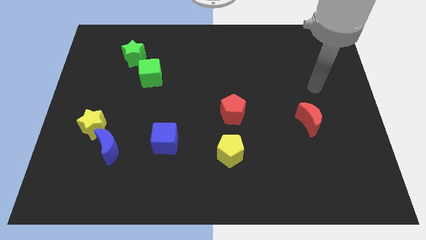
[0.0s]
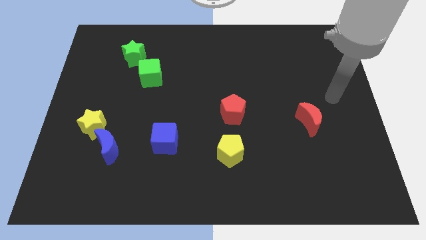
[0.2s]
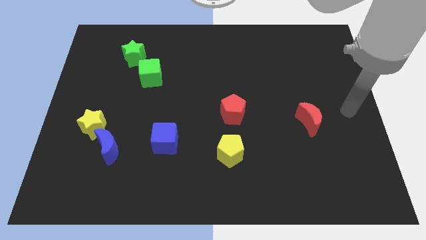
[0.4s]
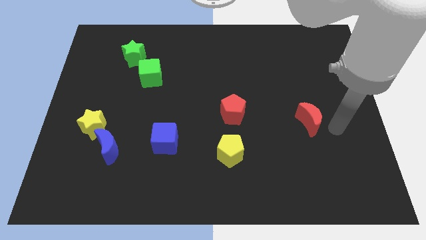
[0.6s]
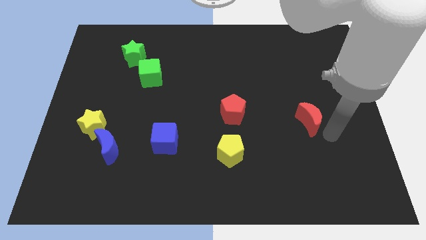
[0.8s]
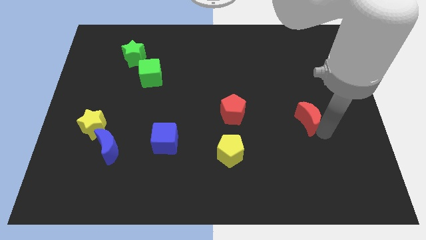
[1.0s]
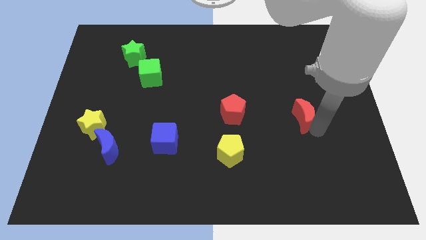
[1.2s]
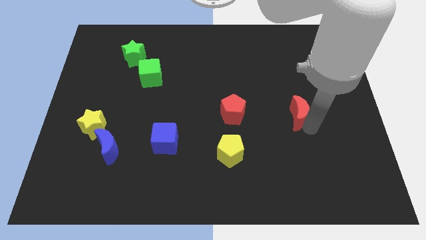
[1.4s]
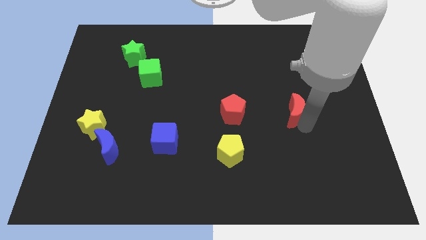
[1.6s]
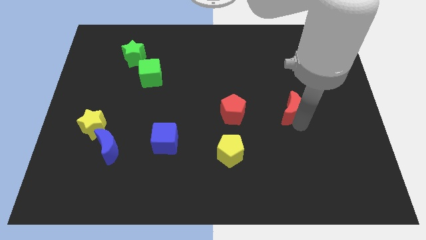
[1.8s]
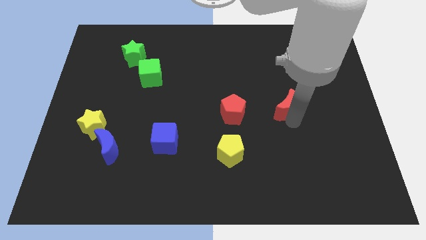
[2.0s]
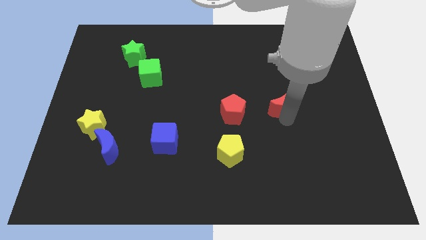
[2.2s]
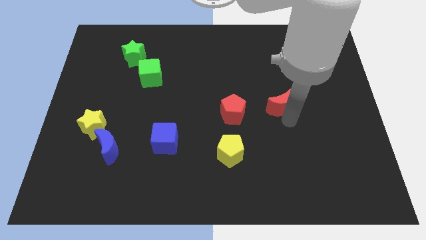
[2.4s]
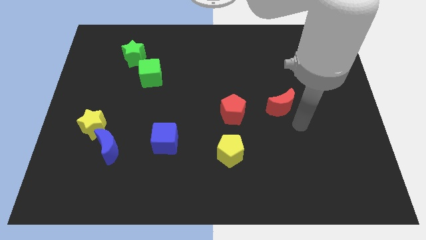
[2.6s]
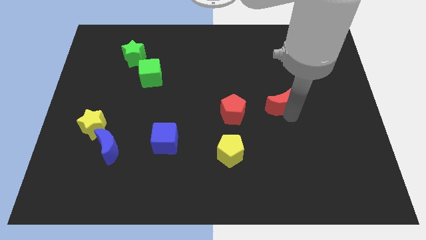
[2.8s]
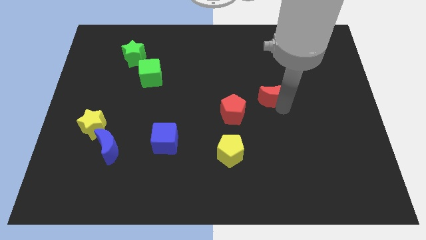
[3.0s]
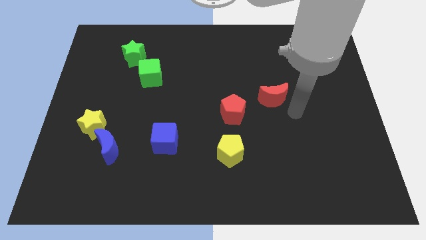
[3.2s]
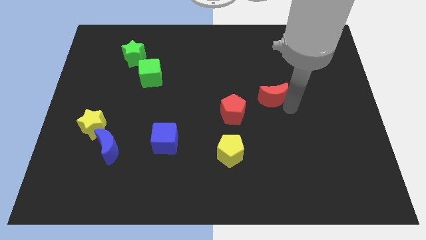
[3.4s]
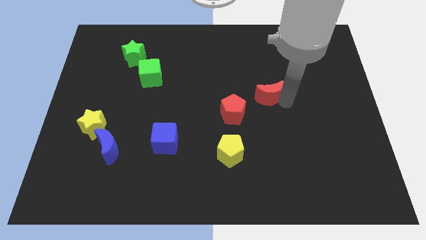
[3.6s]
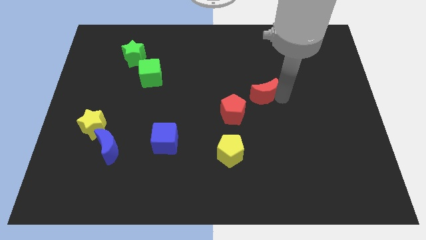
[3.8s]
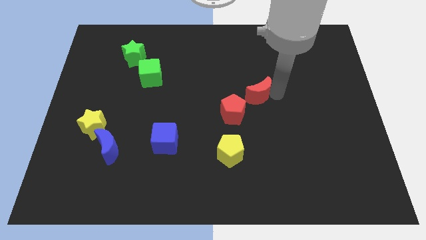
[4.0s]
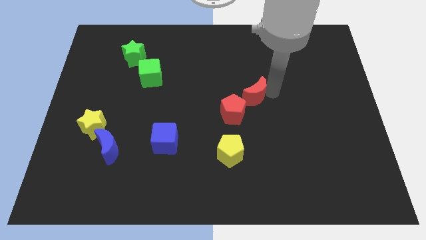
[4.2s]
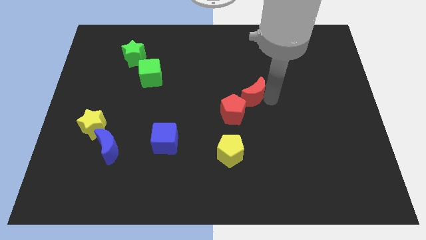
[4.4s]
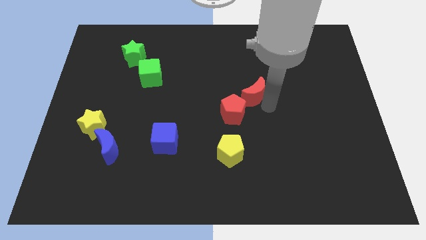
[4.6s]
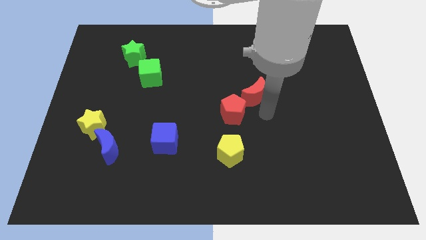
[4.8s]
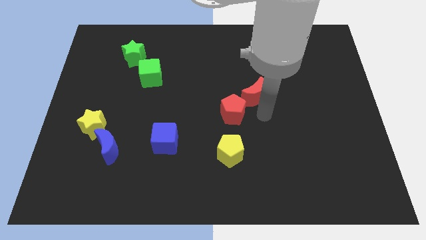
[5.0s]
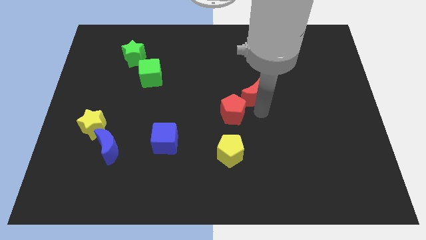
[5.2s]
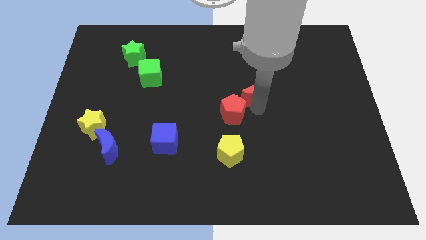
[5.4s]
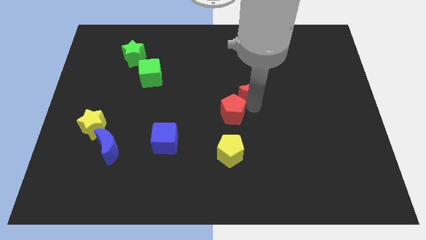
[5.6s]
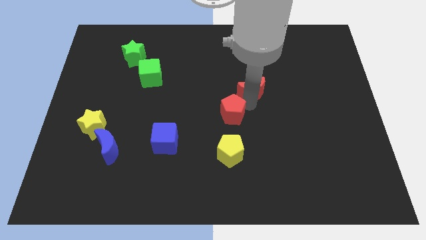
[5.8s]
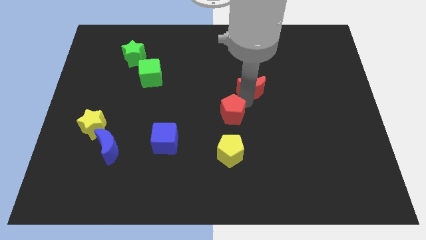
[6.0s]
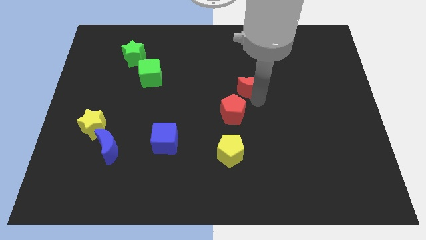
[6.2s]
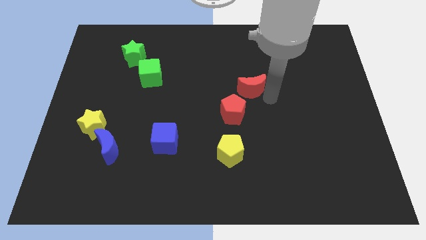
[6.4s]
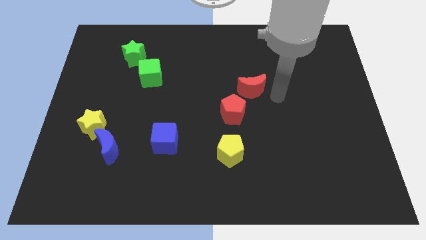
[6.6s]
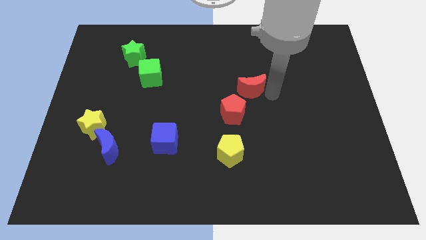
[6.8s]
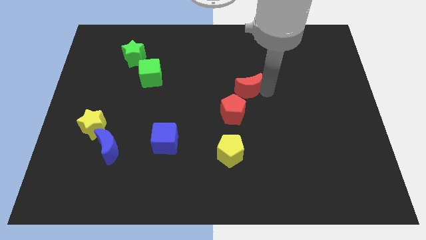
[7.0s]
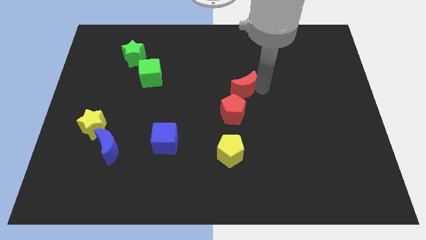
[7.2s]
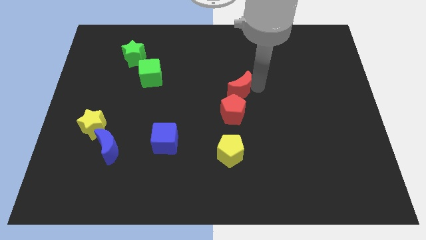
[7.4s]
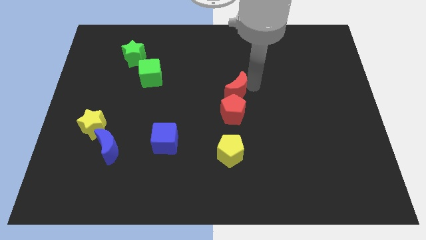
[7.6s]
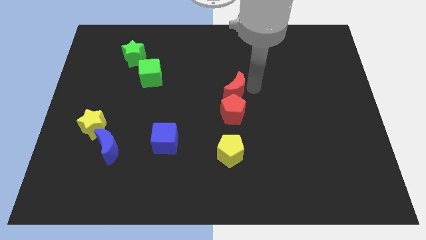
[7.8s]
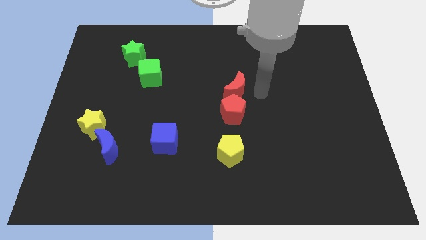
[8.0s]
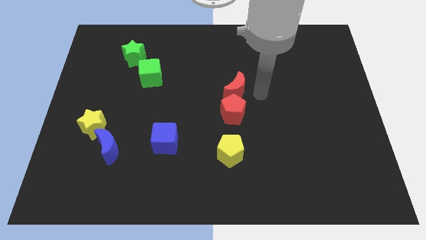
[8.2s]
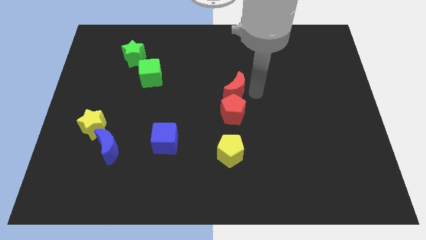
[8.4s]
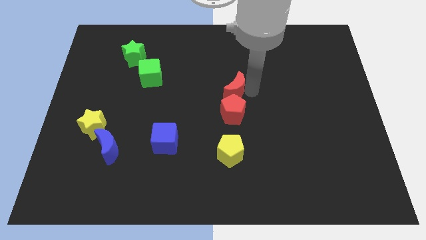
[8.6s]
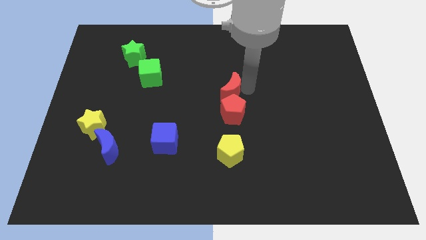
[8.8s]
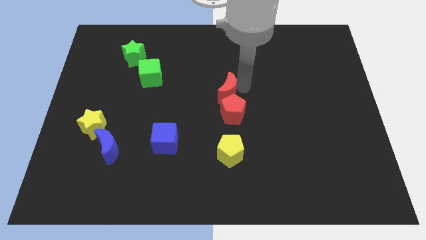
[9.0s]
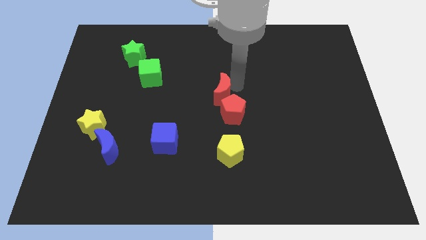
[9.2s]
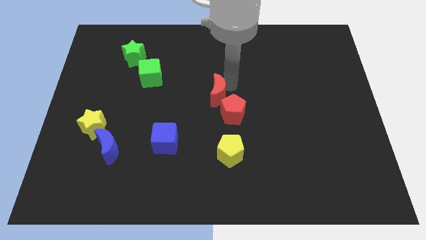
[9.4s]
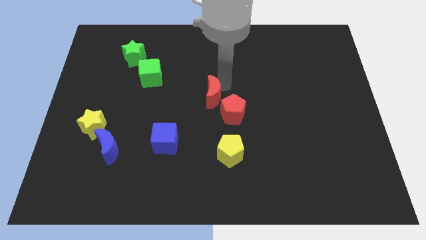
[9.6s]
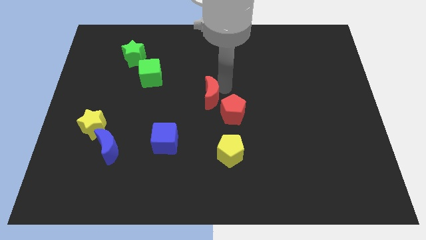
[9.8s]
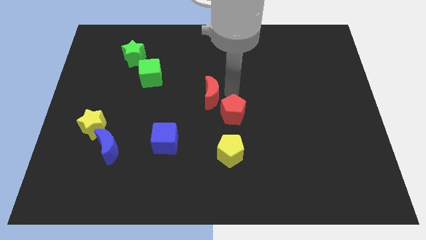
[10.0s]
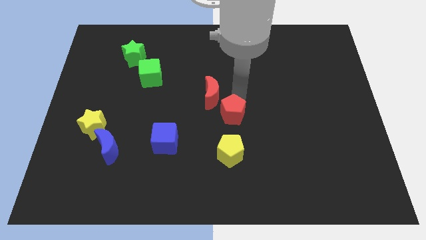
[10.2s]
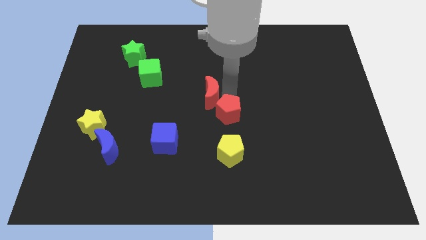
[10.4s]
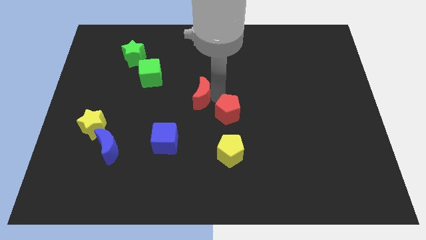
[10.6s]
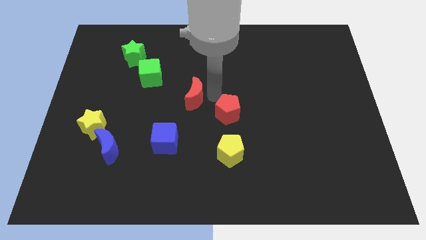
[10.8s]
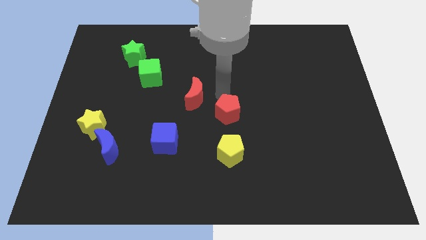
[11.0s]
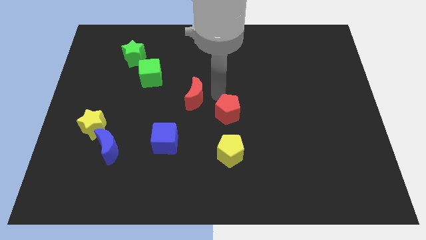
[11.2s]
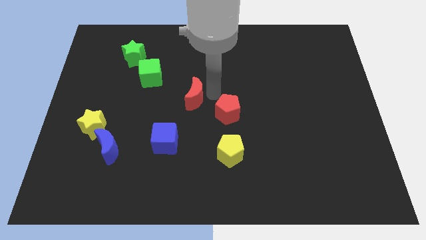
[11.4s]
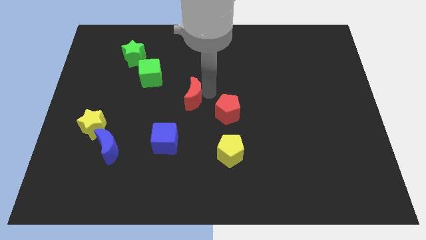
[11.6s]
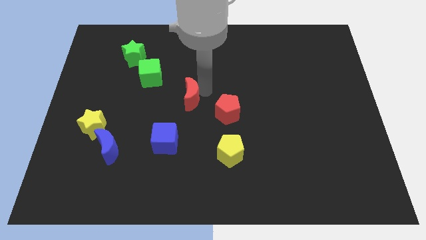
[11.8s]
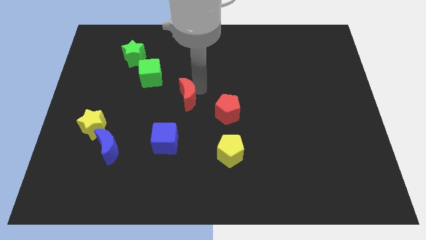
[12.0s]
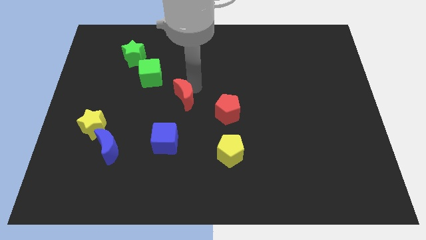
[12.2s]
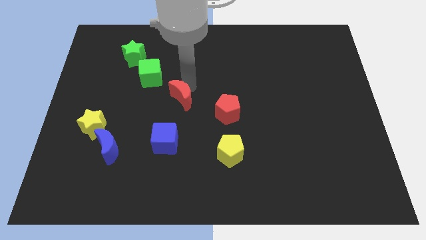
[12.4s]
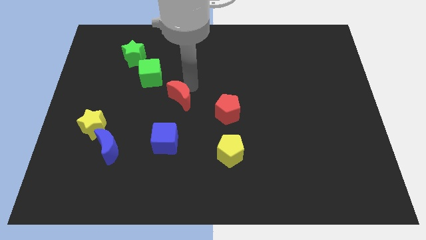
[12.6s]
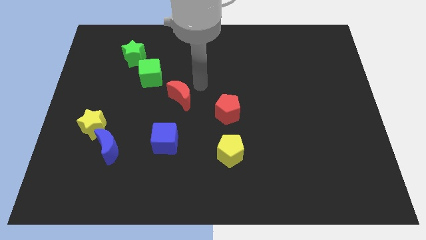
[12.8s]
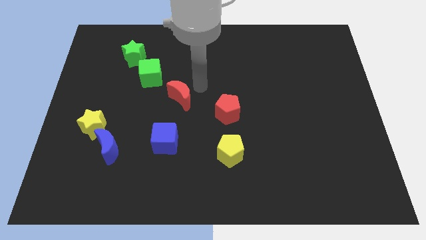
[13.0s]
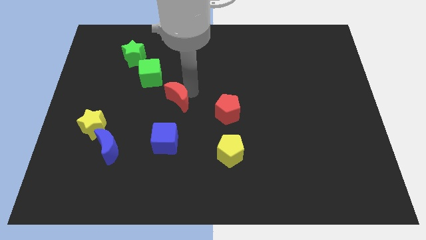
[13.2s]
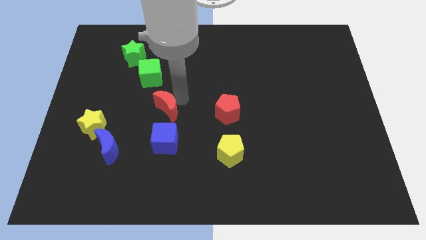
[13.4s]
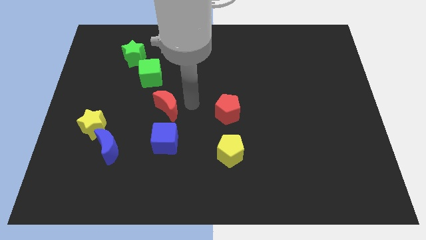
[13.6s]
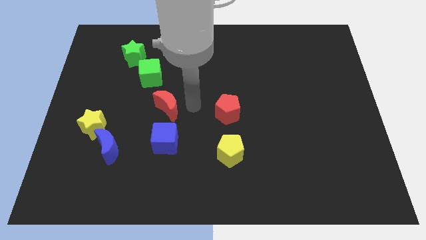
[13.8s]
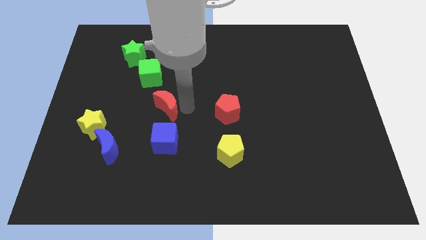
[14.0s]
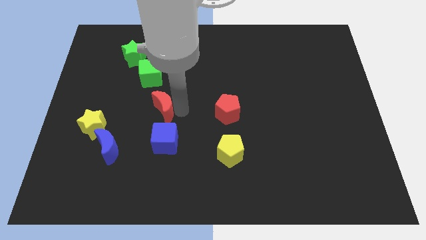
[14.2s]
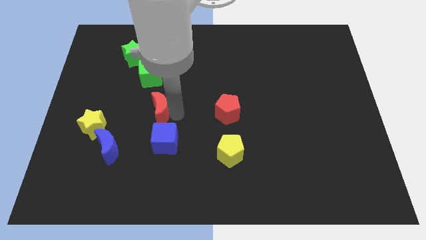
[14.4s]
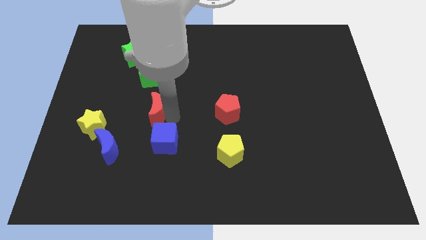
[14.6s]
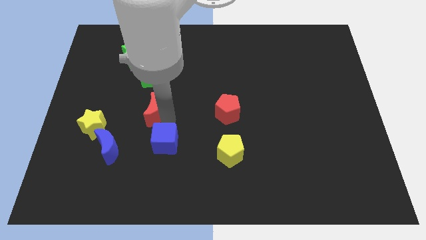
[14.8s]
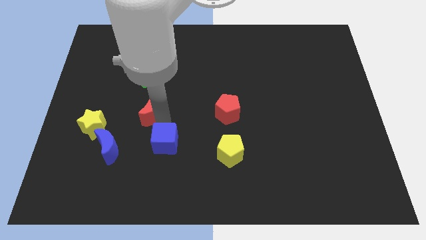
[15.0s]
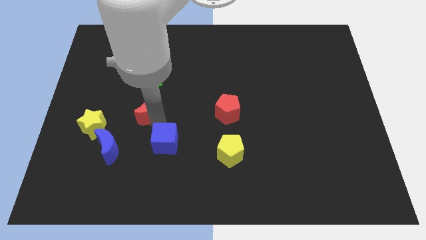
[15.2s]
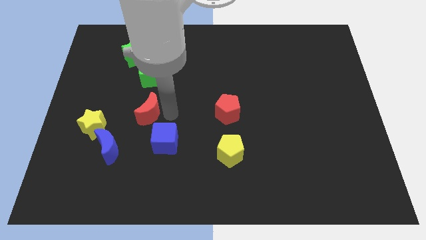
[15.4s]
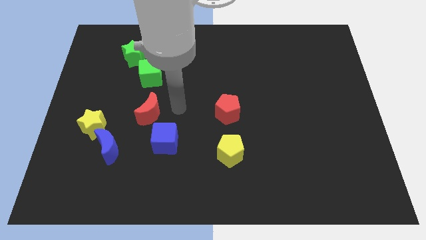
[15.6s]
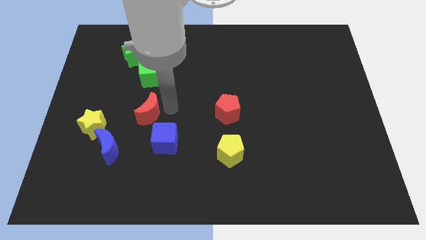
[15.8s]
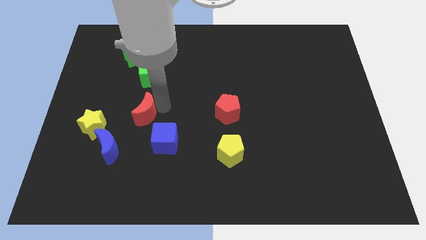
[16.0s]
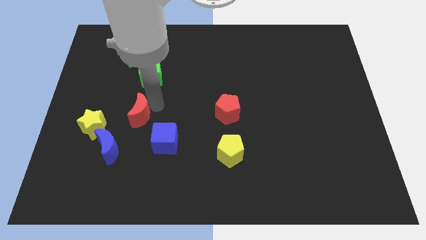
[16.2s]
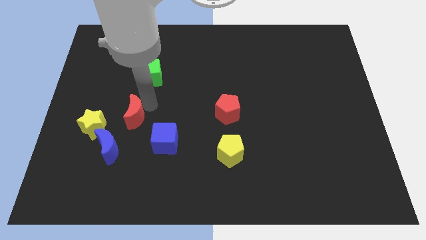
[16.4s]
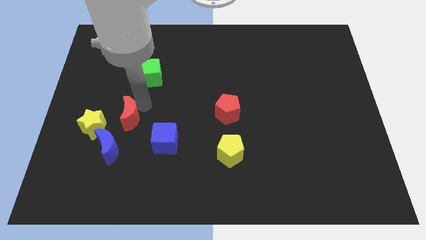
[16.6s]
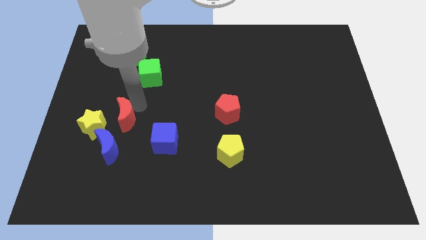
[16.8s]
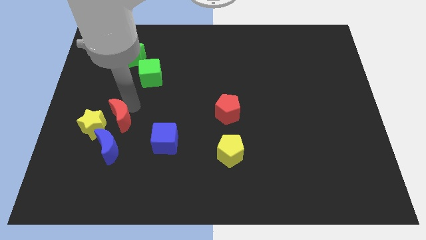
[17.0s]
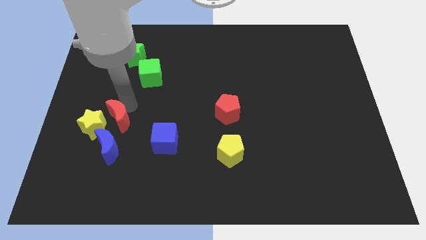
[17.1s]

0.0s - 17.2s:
put the red moon to the yellow star
